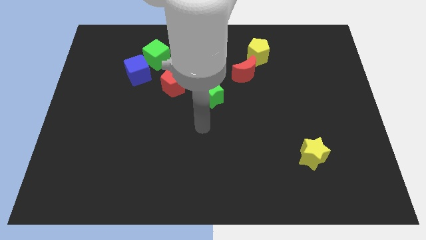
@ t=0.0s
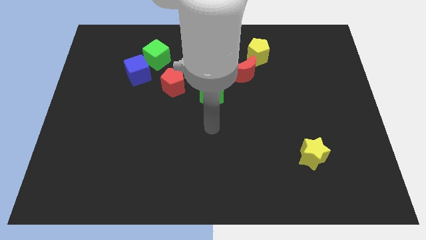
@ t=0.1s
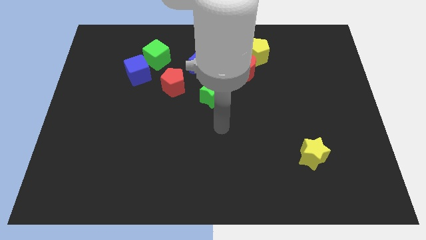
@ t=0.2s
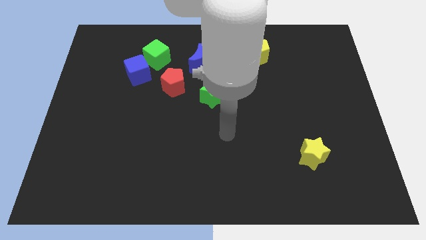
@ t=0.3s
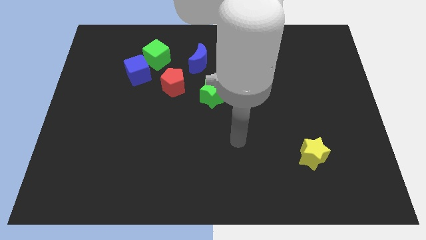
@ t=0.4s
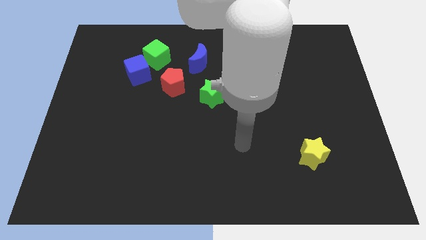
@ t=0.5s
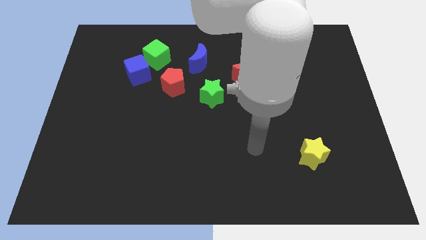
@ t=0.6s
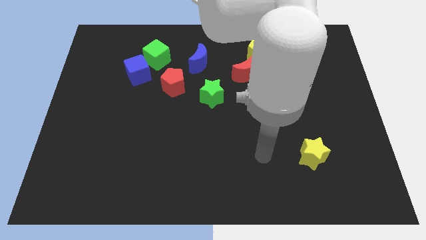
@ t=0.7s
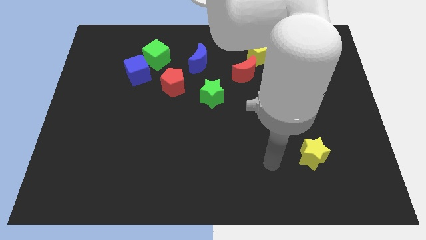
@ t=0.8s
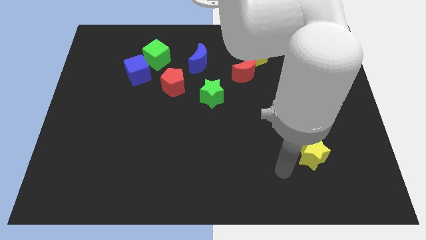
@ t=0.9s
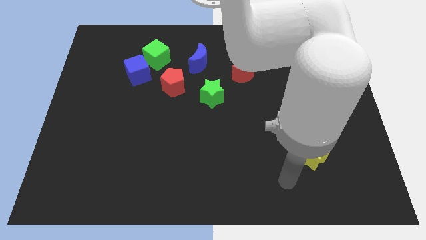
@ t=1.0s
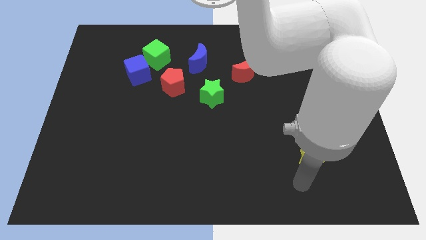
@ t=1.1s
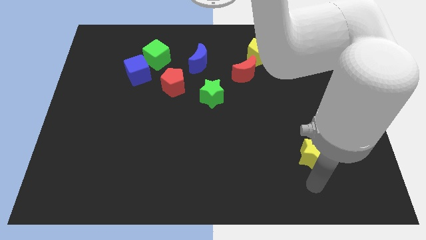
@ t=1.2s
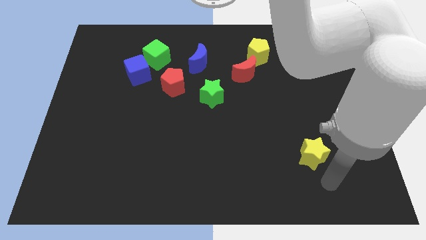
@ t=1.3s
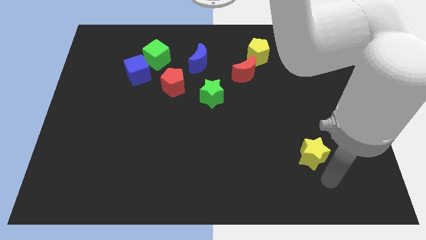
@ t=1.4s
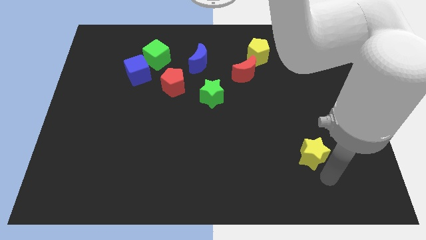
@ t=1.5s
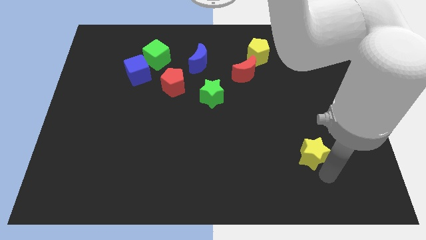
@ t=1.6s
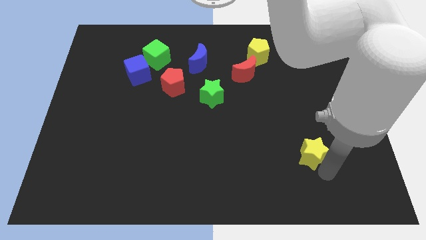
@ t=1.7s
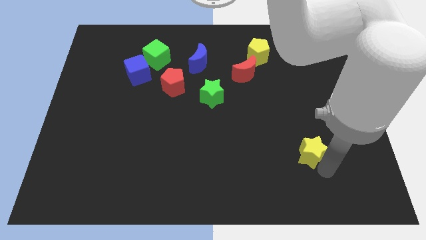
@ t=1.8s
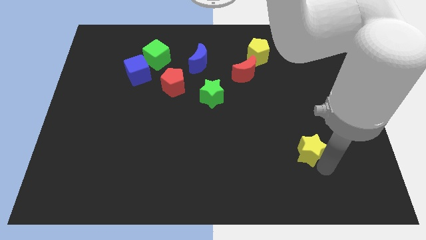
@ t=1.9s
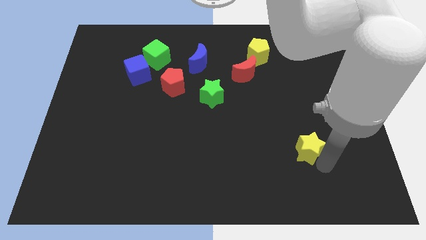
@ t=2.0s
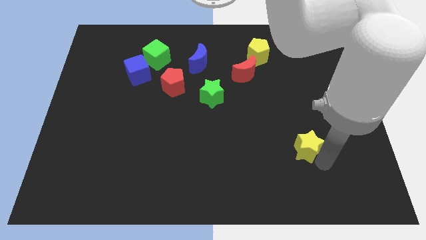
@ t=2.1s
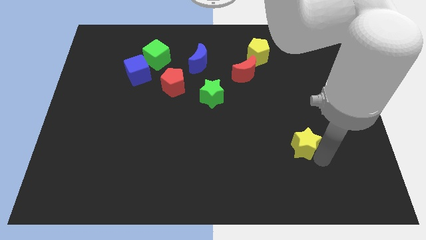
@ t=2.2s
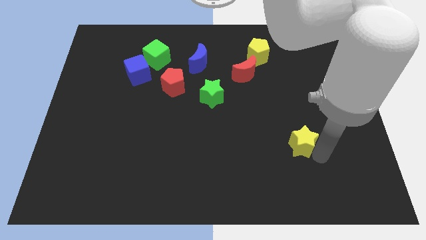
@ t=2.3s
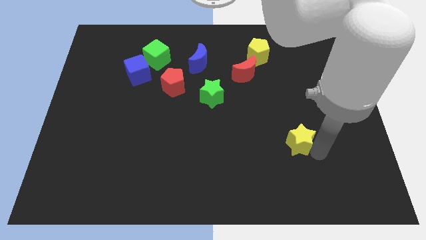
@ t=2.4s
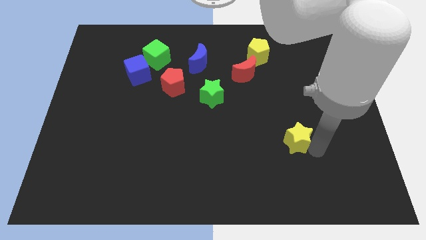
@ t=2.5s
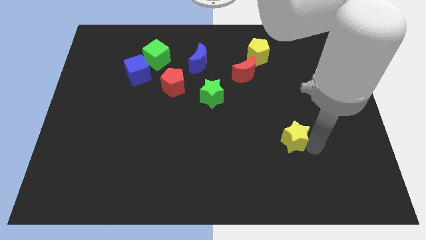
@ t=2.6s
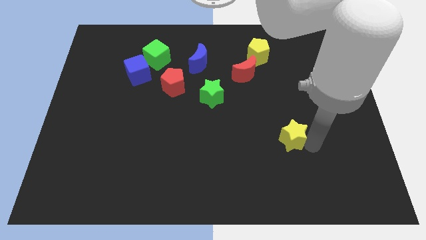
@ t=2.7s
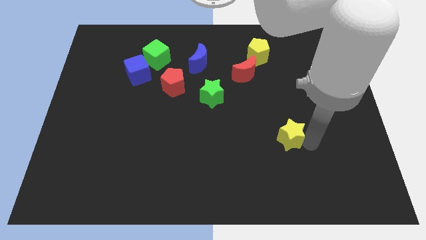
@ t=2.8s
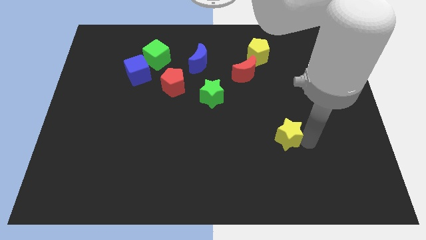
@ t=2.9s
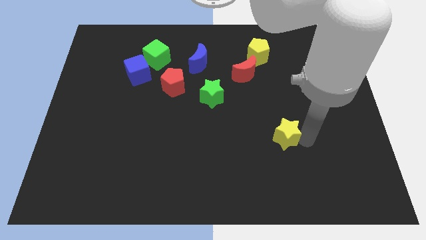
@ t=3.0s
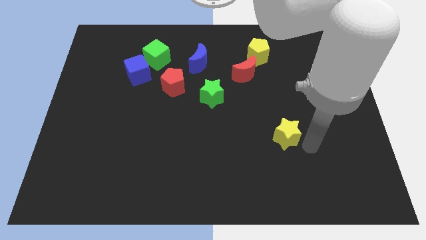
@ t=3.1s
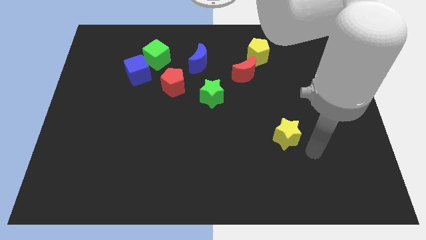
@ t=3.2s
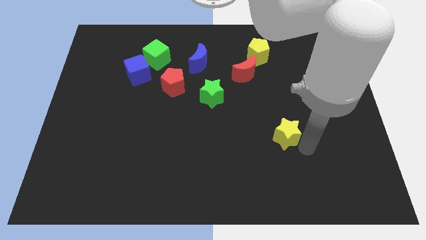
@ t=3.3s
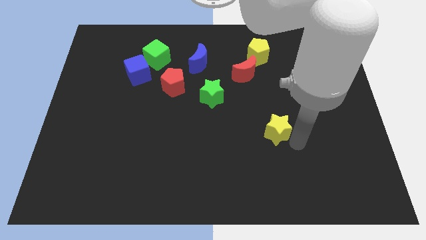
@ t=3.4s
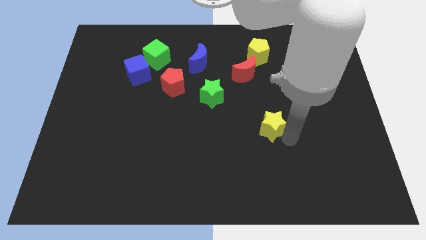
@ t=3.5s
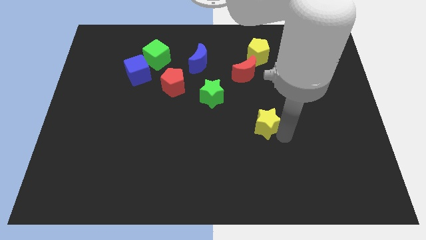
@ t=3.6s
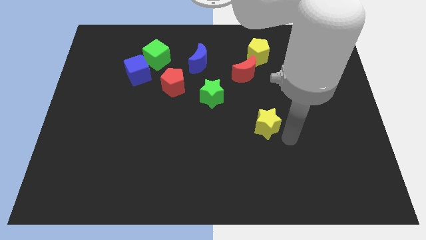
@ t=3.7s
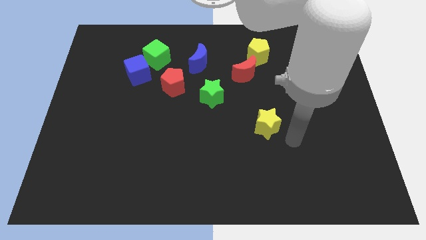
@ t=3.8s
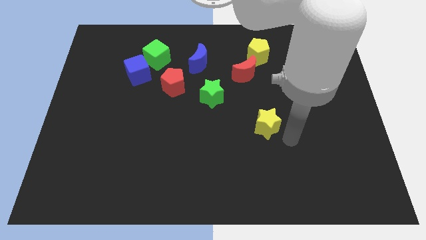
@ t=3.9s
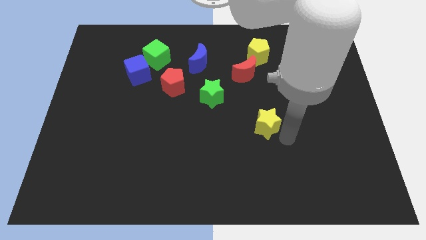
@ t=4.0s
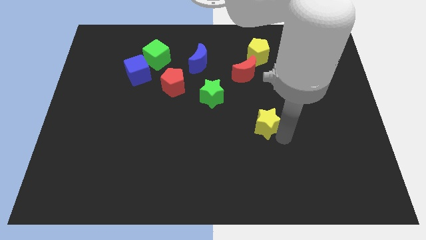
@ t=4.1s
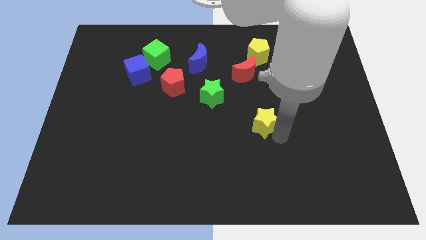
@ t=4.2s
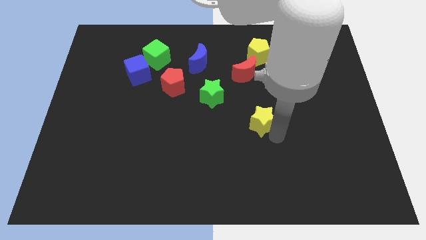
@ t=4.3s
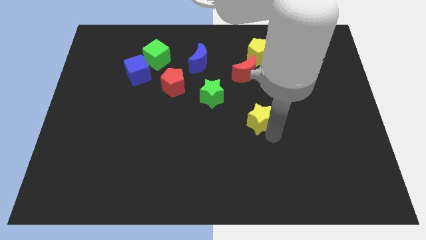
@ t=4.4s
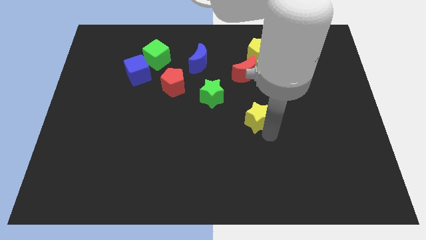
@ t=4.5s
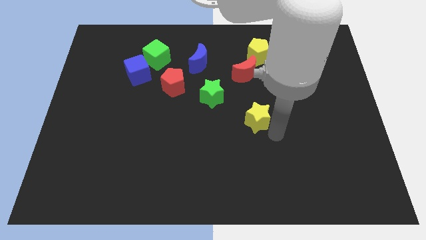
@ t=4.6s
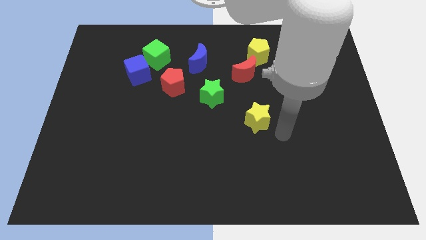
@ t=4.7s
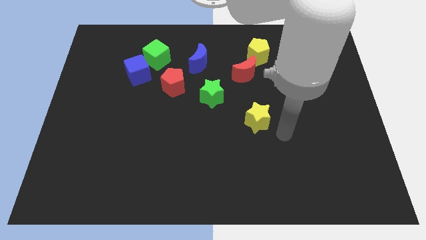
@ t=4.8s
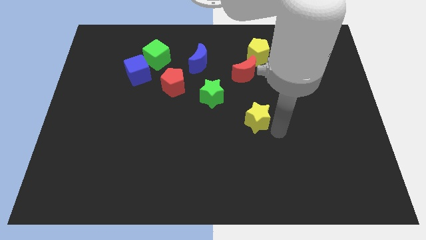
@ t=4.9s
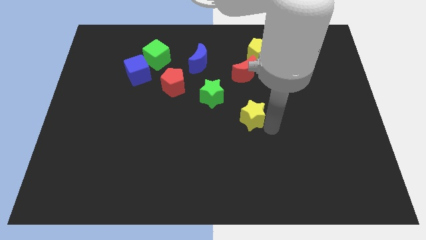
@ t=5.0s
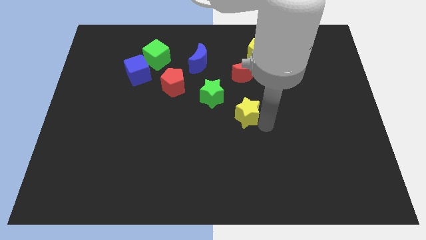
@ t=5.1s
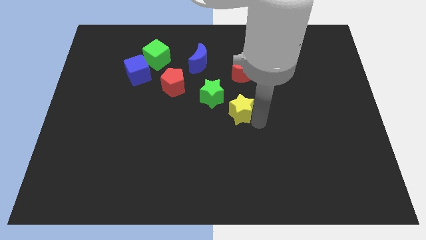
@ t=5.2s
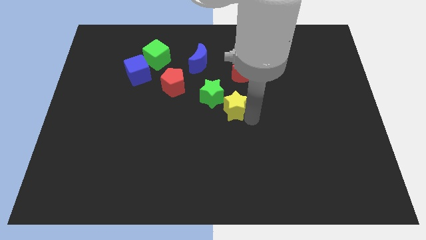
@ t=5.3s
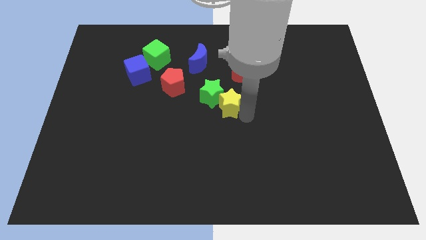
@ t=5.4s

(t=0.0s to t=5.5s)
slide the yellow star to the green star

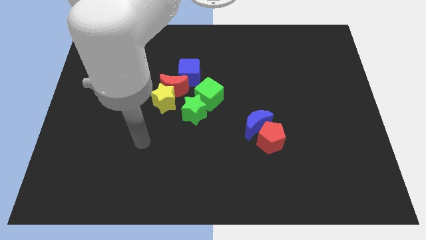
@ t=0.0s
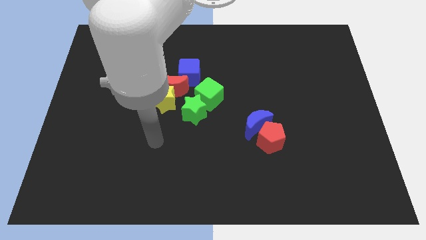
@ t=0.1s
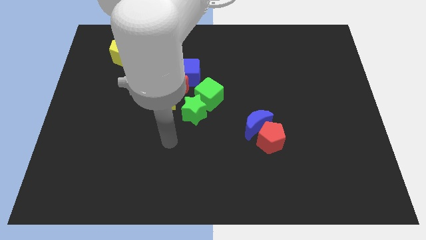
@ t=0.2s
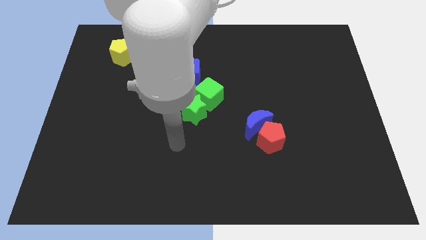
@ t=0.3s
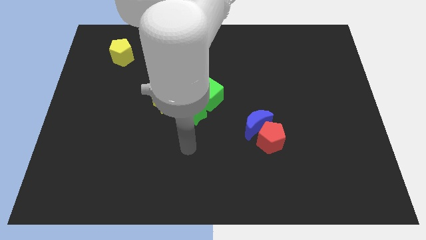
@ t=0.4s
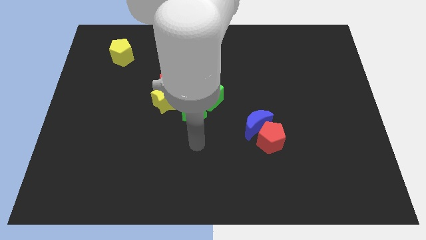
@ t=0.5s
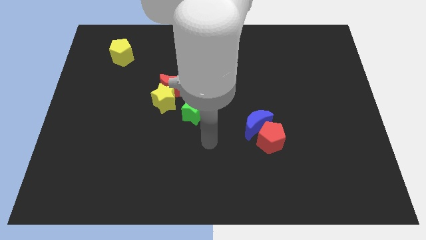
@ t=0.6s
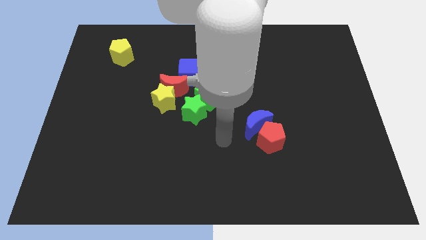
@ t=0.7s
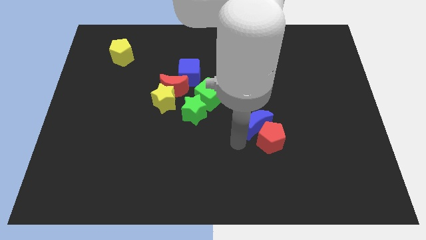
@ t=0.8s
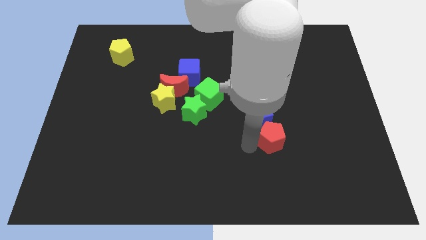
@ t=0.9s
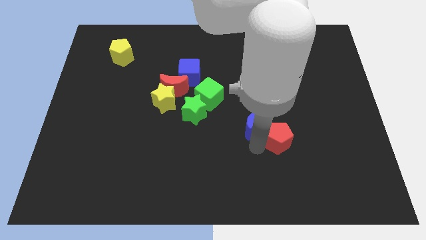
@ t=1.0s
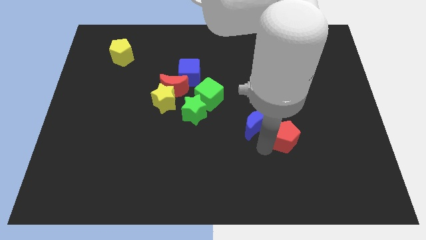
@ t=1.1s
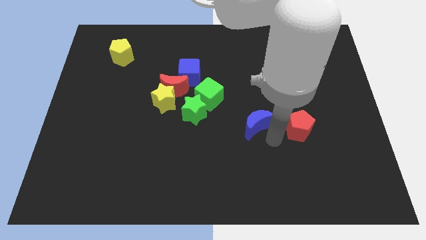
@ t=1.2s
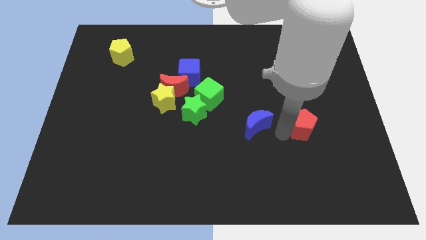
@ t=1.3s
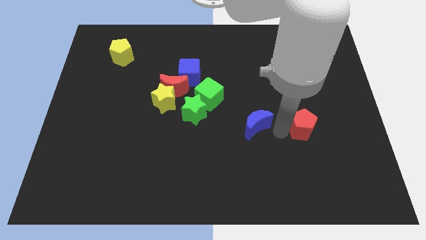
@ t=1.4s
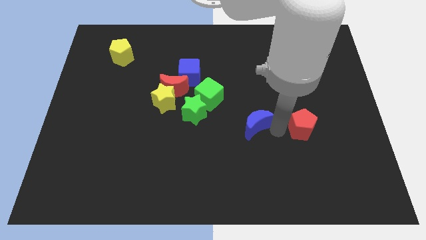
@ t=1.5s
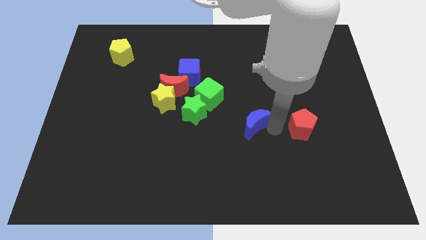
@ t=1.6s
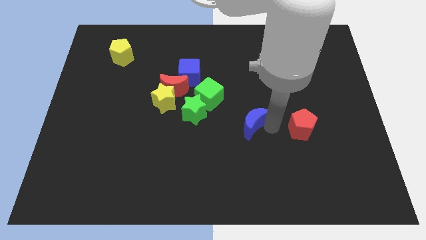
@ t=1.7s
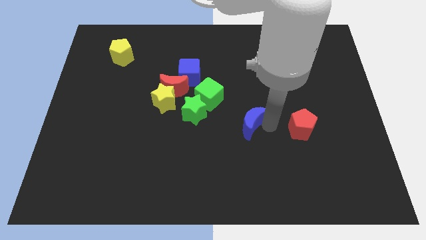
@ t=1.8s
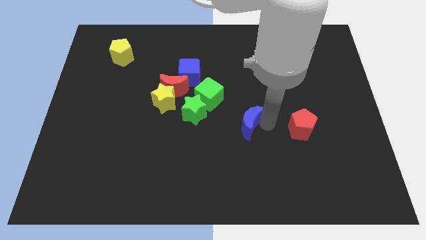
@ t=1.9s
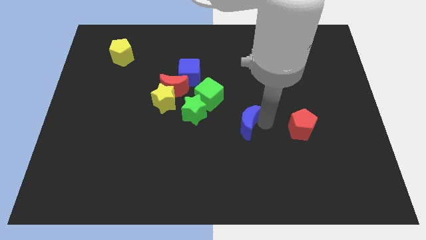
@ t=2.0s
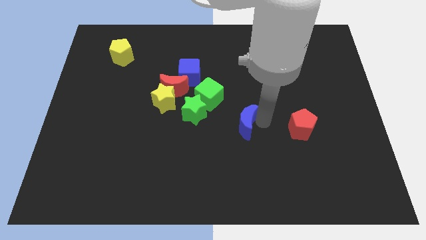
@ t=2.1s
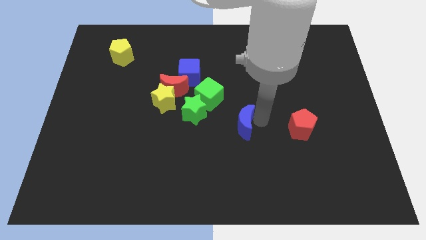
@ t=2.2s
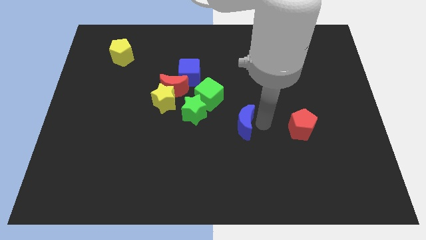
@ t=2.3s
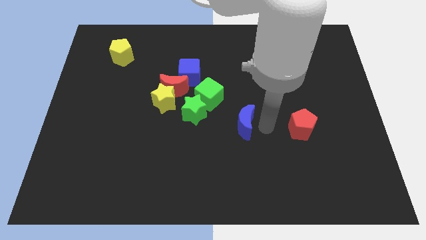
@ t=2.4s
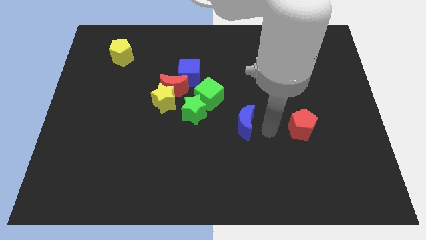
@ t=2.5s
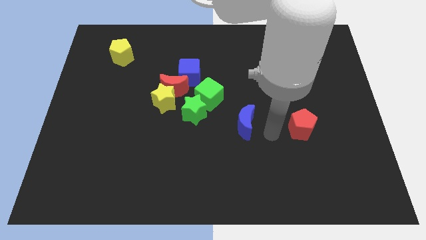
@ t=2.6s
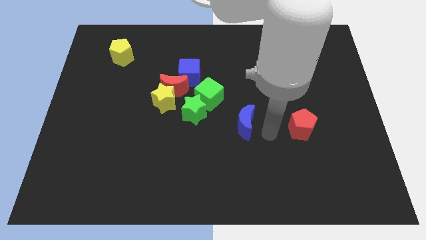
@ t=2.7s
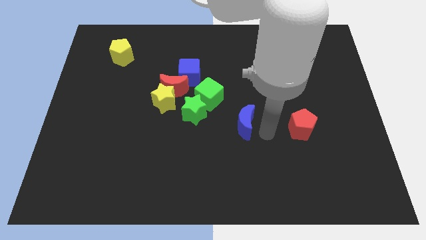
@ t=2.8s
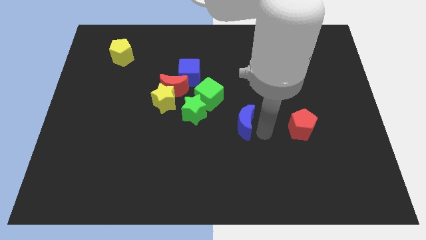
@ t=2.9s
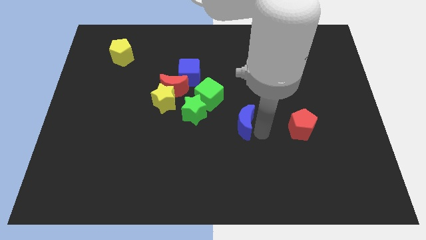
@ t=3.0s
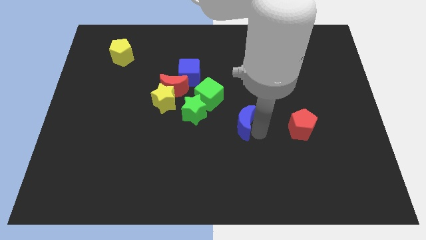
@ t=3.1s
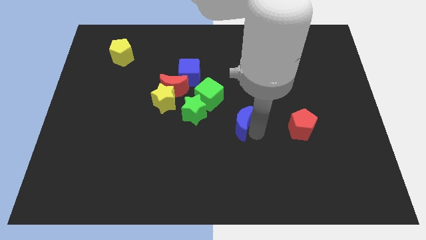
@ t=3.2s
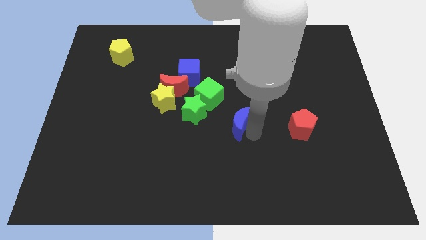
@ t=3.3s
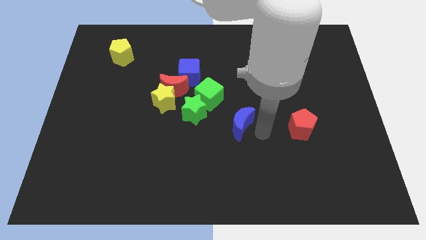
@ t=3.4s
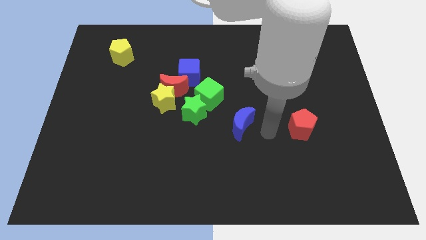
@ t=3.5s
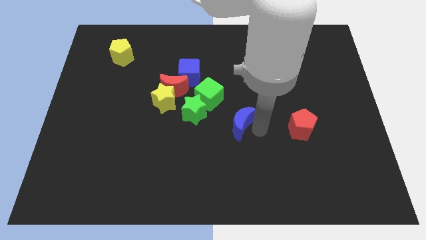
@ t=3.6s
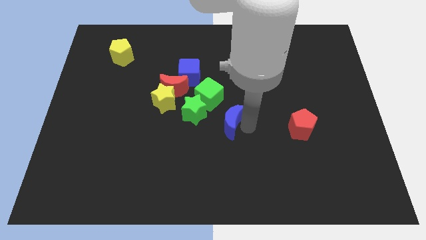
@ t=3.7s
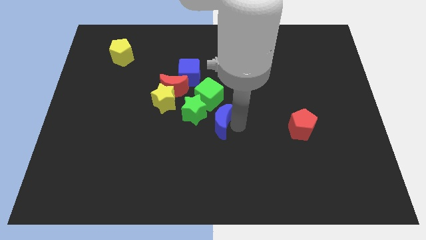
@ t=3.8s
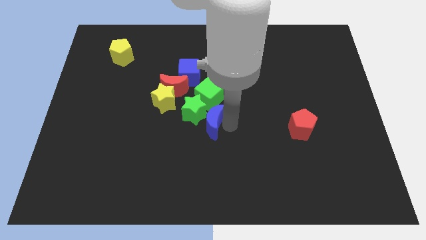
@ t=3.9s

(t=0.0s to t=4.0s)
move the blue moon to the green star
